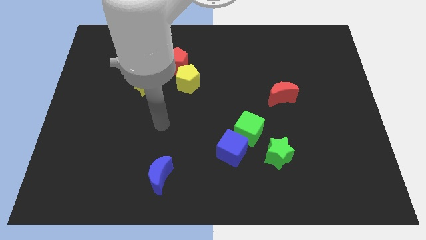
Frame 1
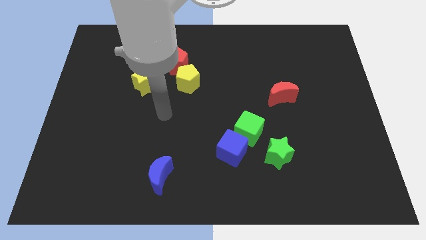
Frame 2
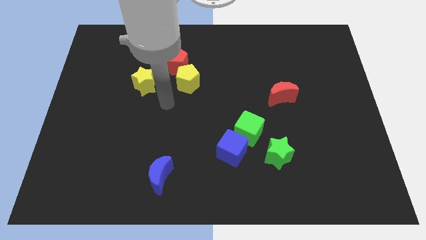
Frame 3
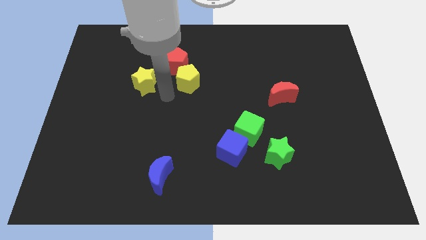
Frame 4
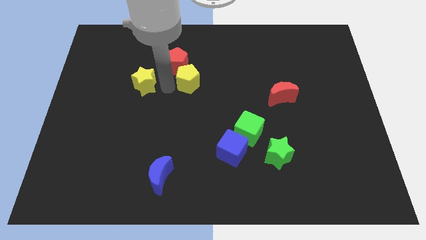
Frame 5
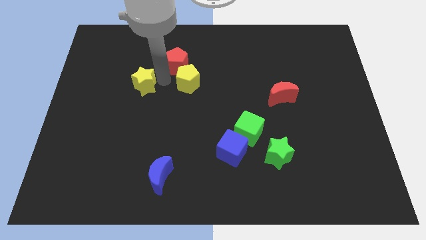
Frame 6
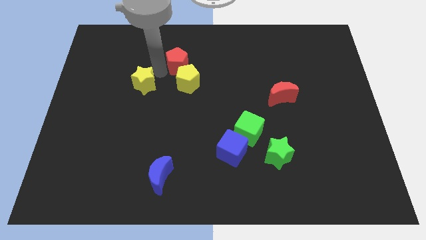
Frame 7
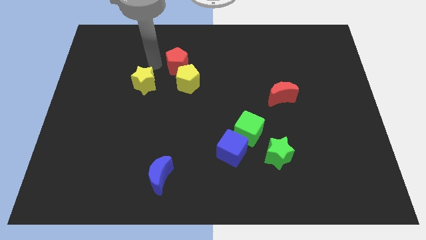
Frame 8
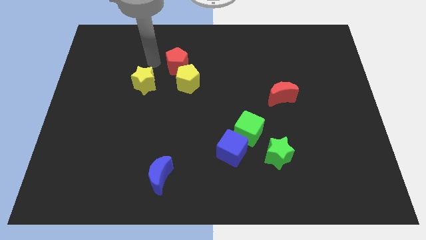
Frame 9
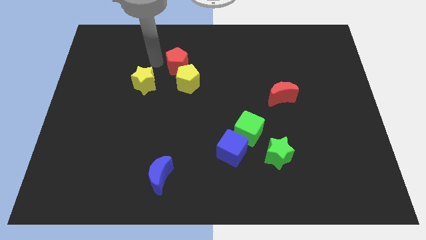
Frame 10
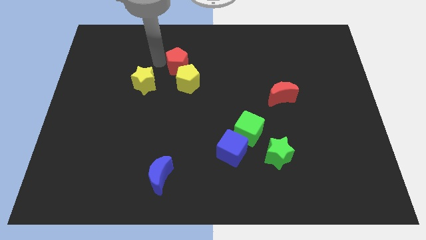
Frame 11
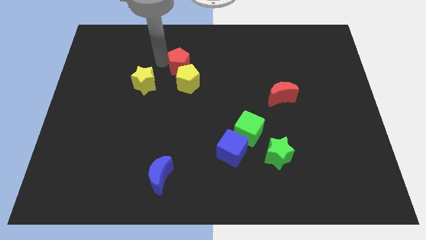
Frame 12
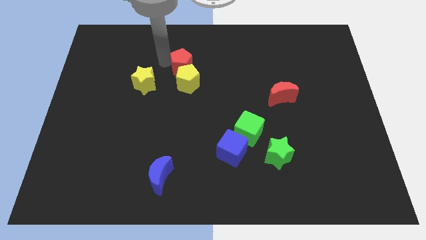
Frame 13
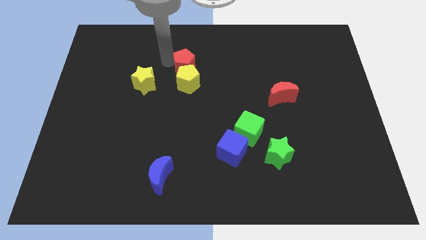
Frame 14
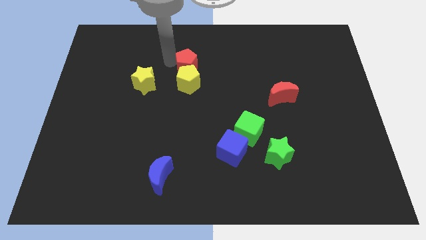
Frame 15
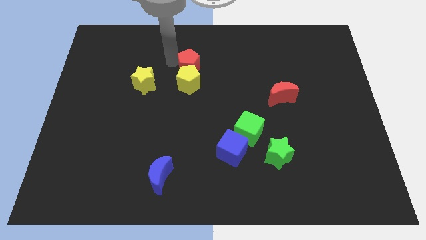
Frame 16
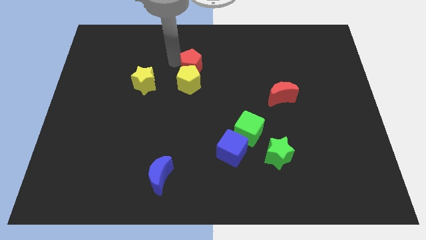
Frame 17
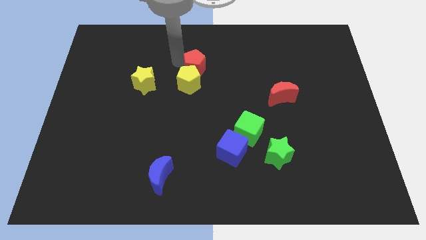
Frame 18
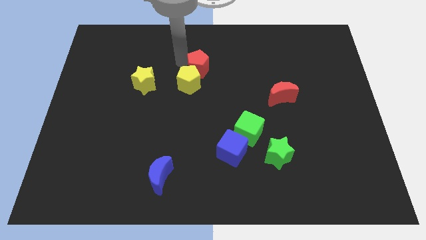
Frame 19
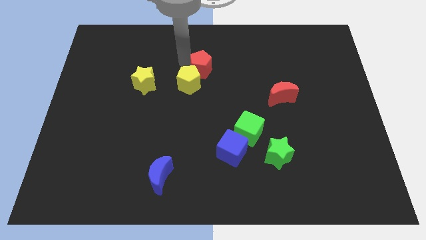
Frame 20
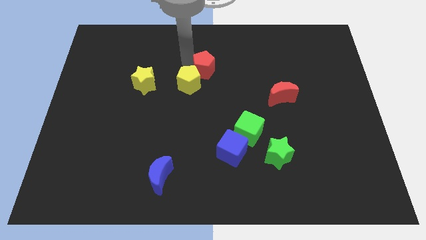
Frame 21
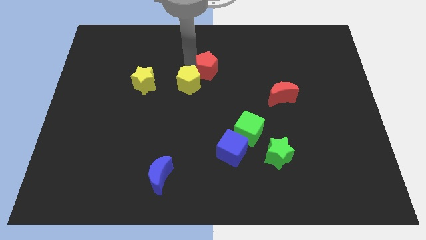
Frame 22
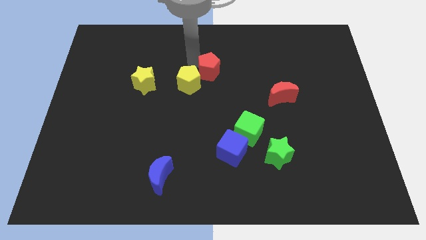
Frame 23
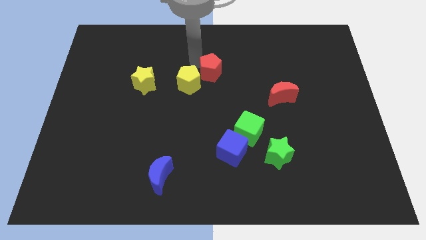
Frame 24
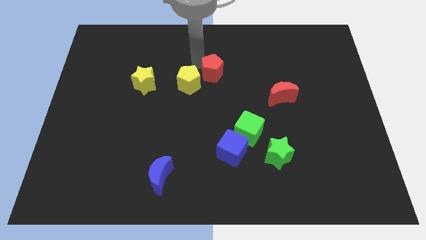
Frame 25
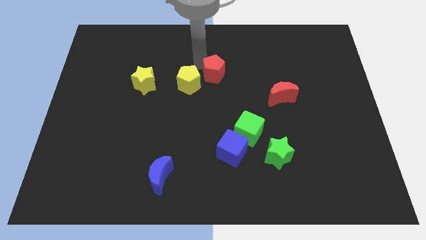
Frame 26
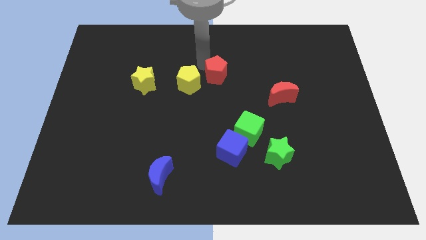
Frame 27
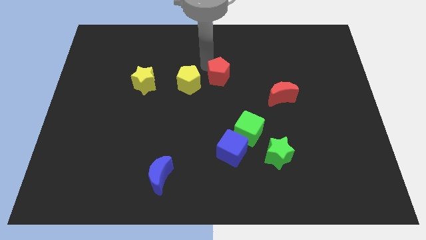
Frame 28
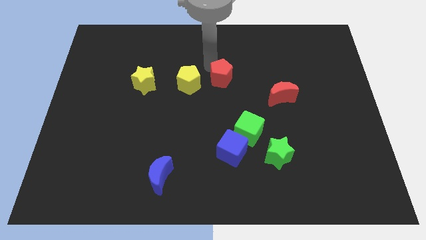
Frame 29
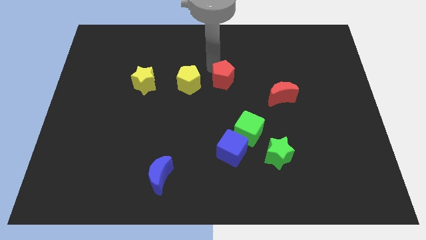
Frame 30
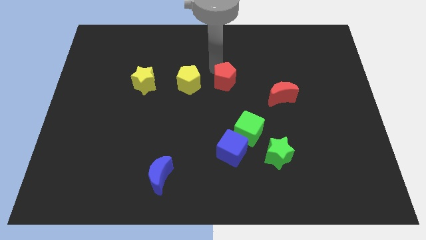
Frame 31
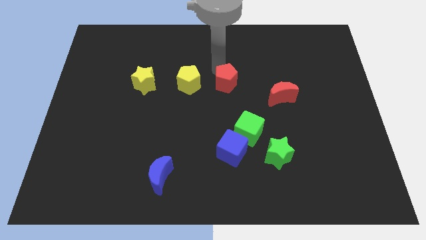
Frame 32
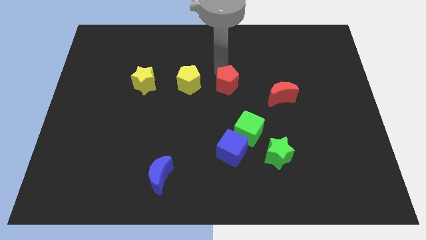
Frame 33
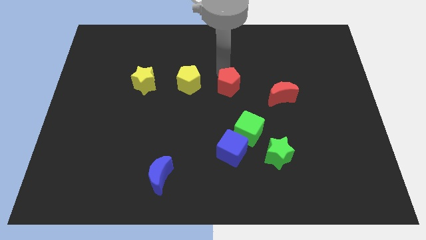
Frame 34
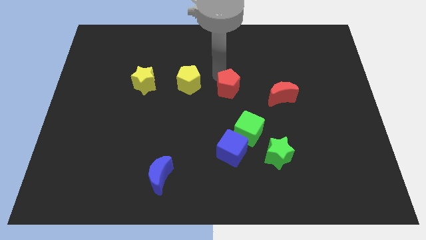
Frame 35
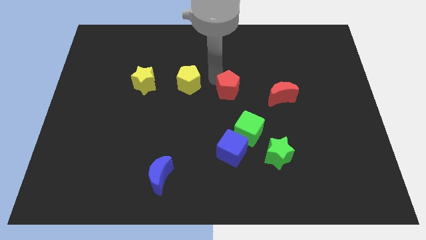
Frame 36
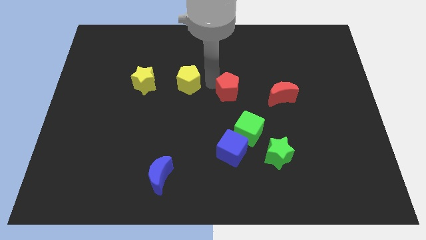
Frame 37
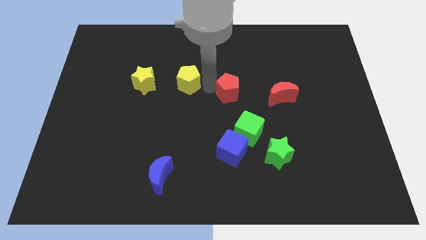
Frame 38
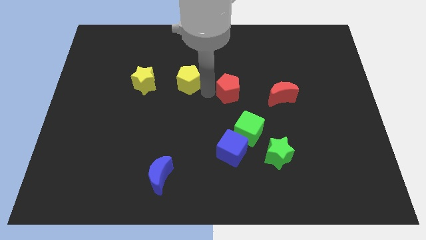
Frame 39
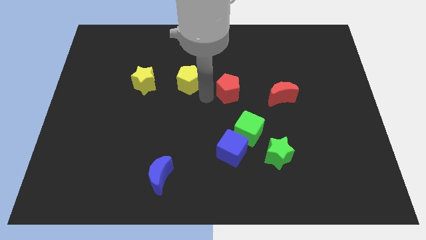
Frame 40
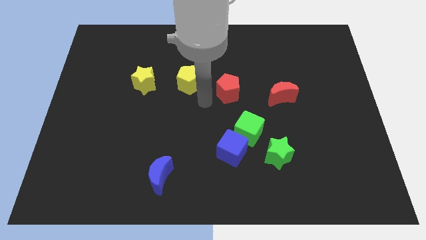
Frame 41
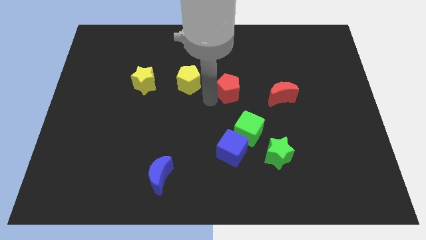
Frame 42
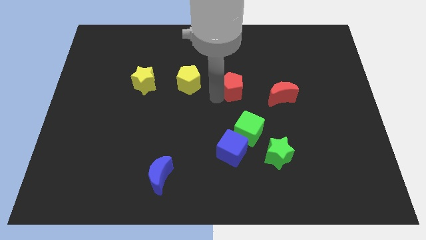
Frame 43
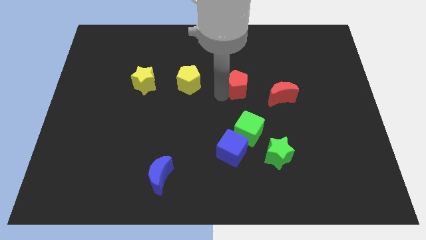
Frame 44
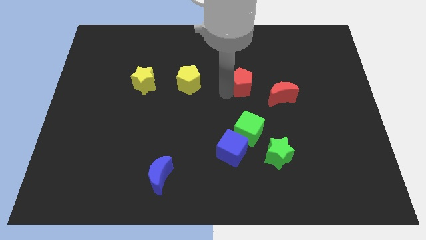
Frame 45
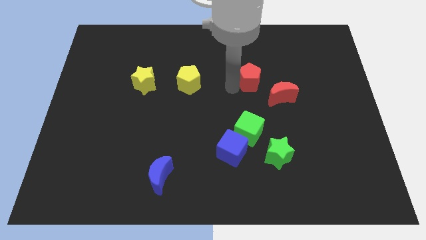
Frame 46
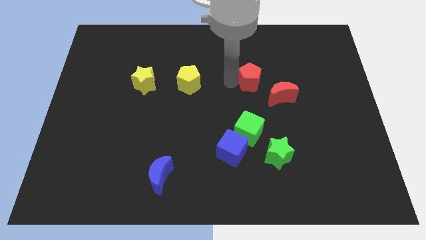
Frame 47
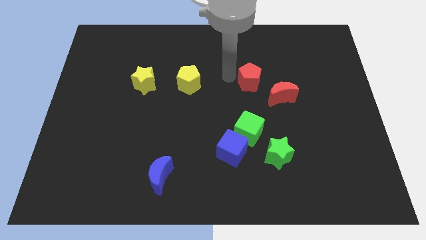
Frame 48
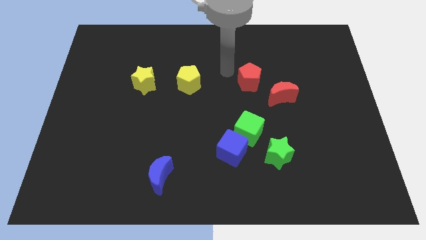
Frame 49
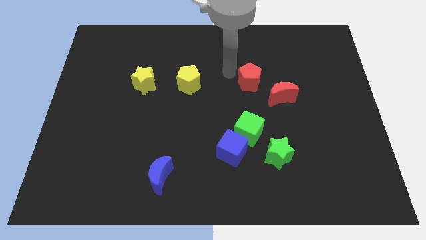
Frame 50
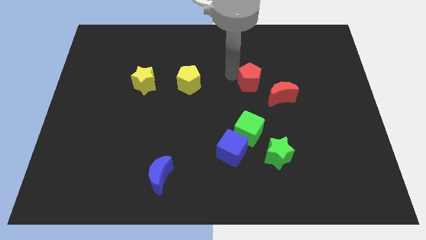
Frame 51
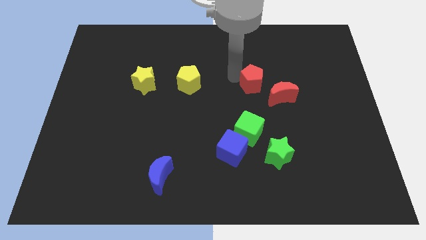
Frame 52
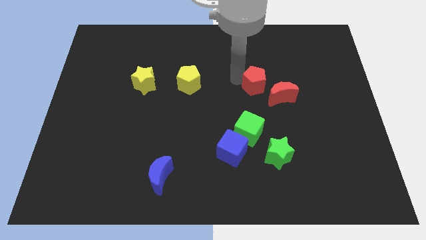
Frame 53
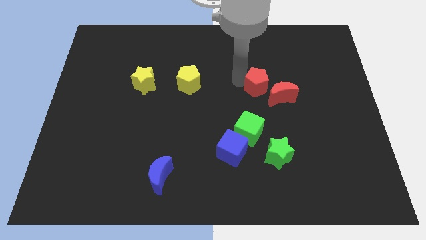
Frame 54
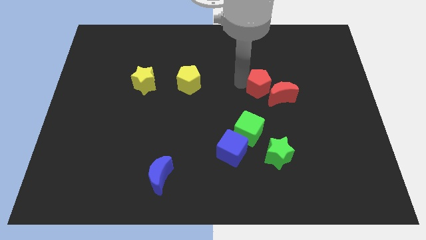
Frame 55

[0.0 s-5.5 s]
slide the red pentagon to the red moon

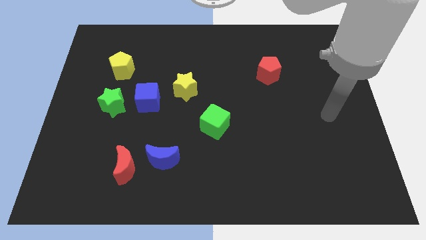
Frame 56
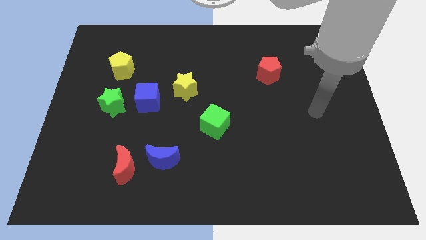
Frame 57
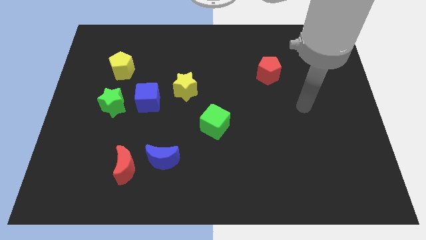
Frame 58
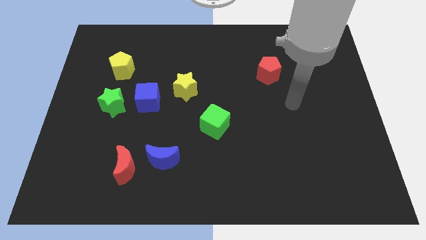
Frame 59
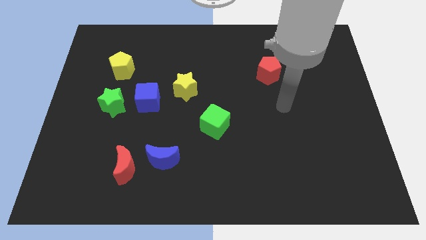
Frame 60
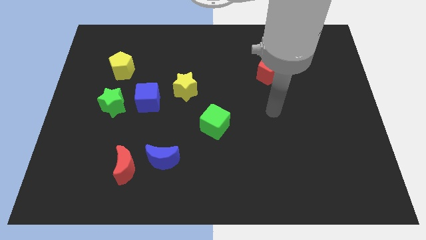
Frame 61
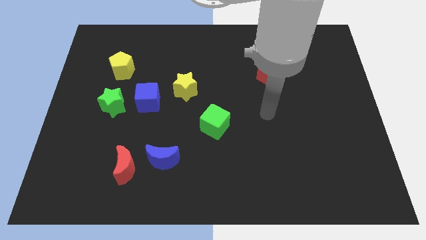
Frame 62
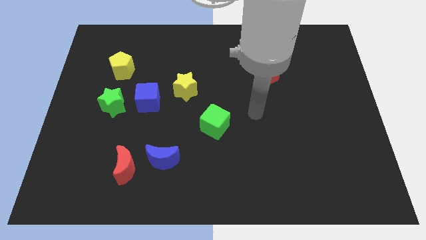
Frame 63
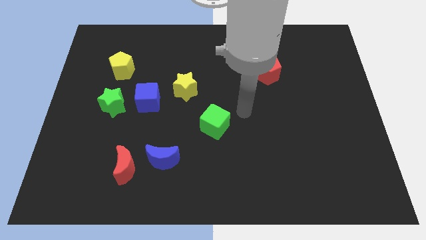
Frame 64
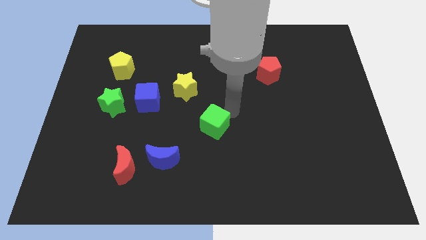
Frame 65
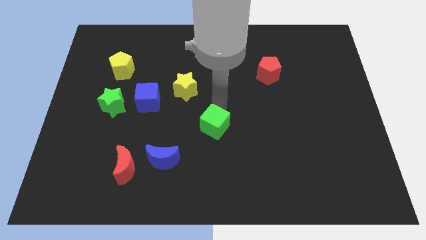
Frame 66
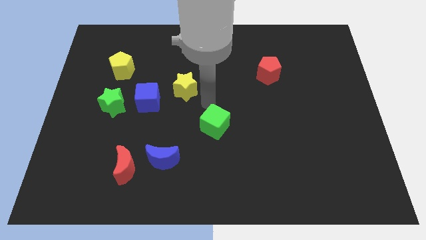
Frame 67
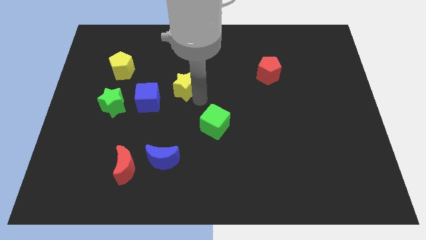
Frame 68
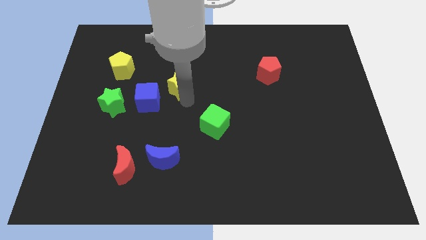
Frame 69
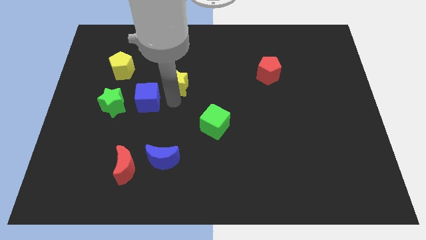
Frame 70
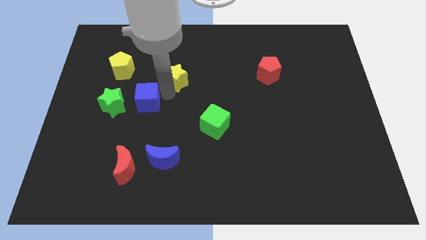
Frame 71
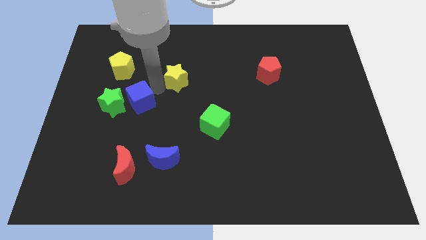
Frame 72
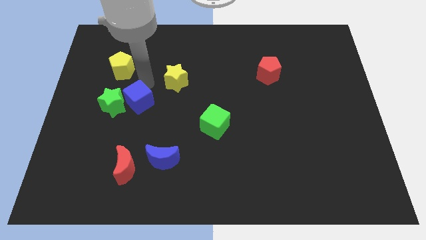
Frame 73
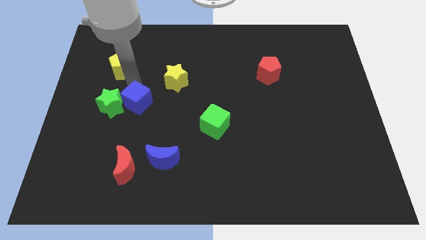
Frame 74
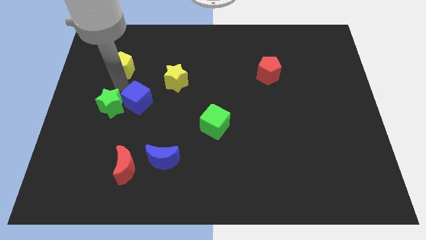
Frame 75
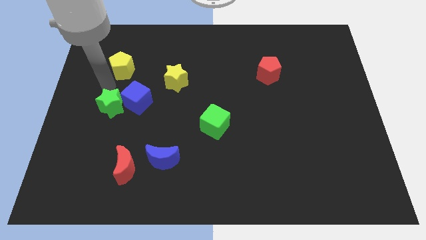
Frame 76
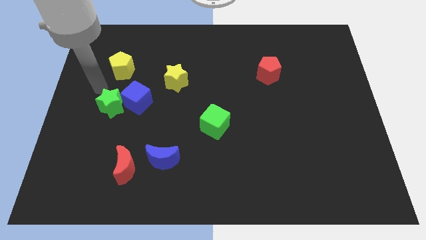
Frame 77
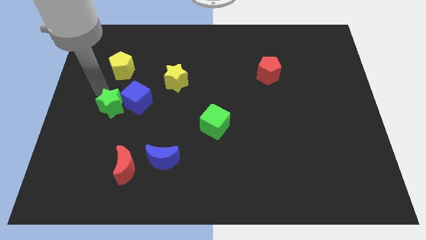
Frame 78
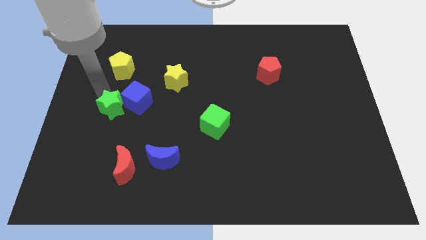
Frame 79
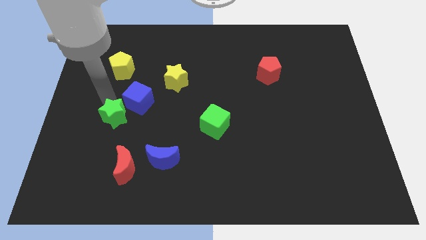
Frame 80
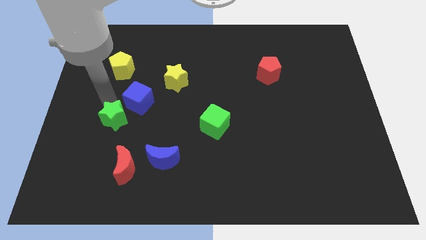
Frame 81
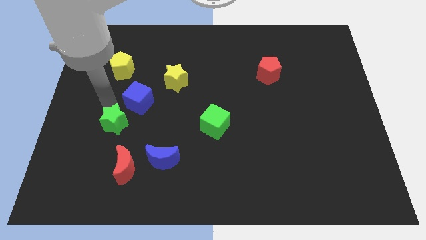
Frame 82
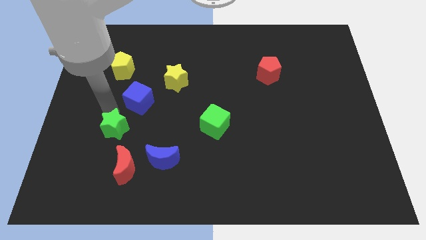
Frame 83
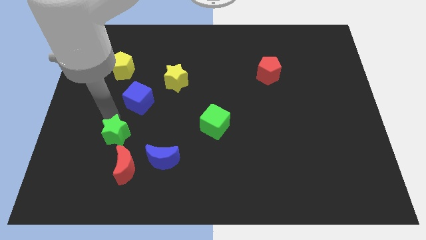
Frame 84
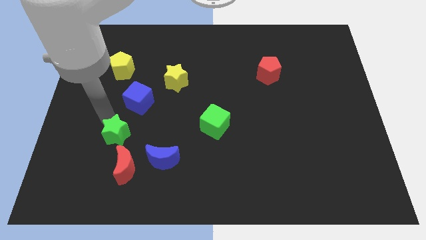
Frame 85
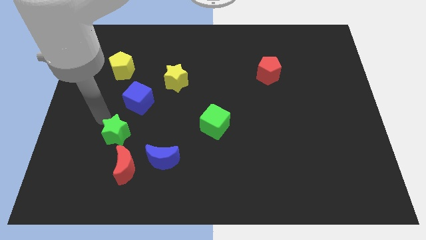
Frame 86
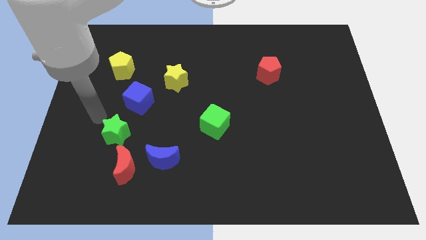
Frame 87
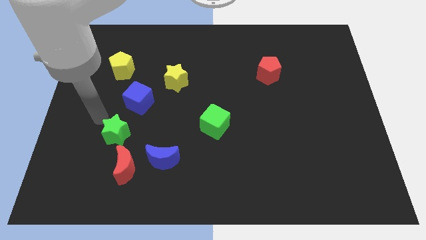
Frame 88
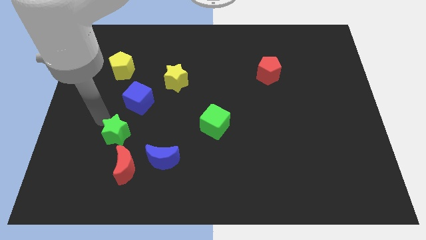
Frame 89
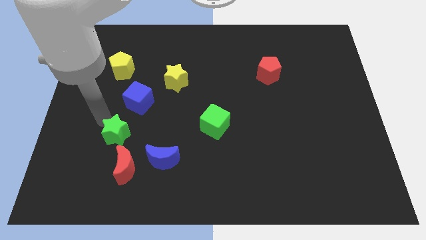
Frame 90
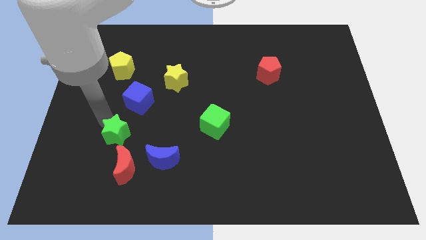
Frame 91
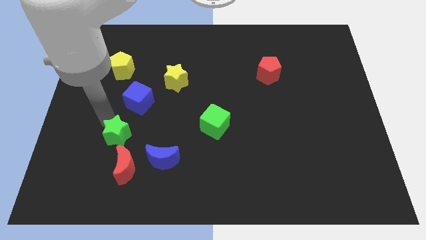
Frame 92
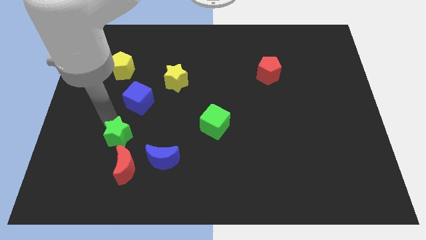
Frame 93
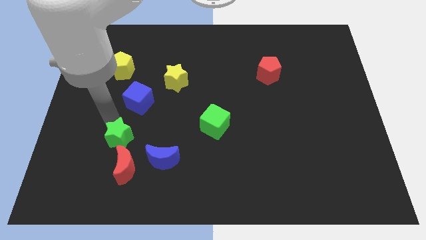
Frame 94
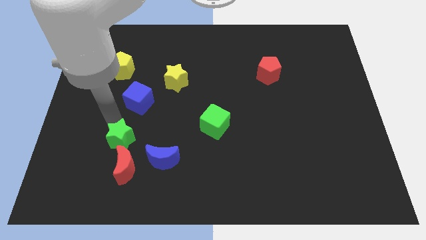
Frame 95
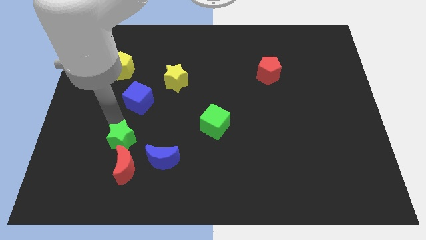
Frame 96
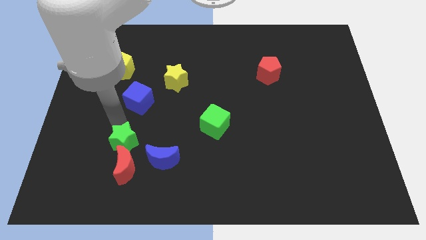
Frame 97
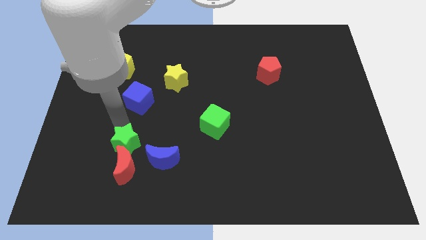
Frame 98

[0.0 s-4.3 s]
slide the green star close to the red moon
